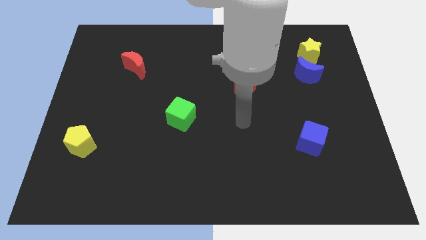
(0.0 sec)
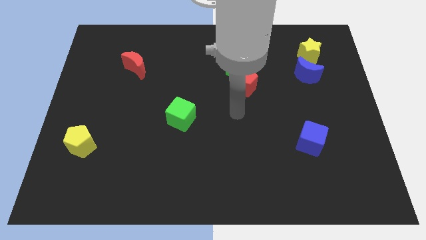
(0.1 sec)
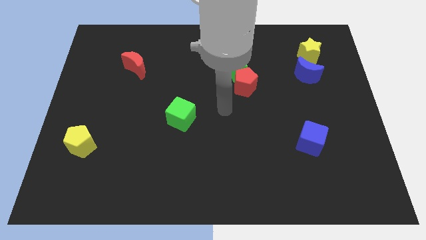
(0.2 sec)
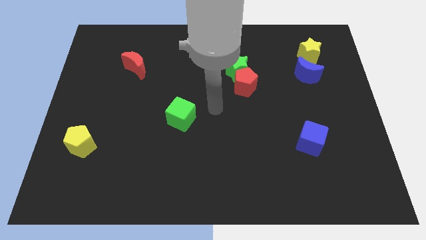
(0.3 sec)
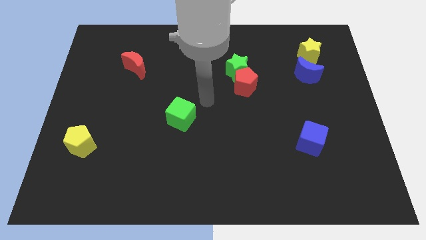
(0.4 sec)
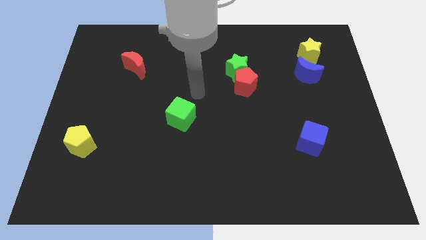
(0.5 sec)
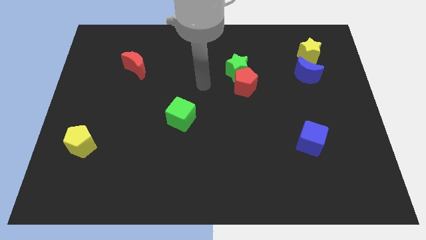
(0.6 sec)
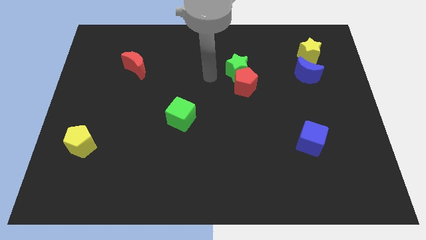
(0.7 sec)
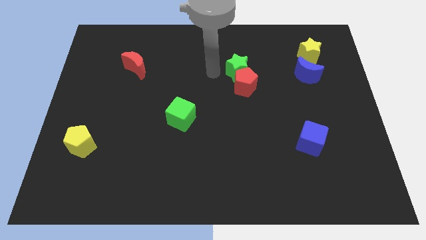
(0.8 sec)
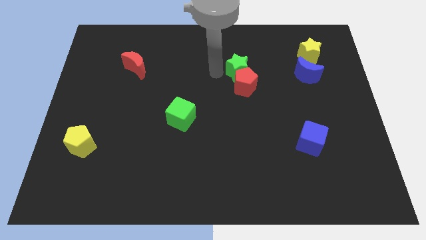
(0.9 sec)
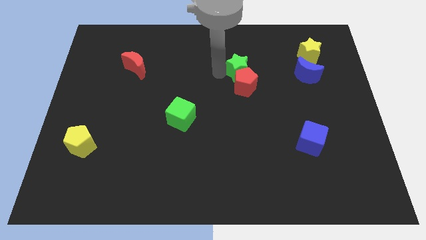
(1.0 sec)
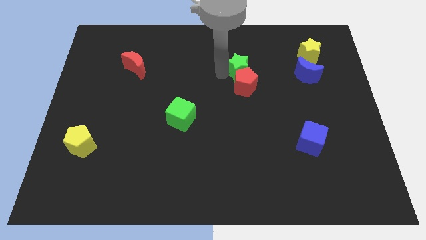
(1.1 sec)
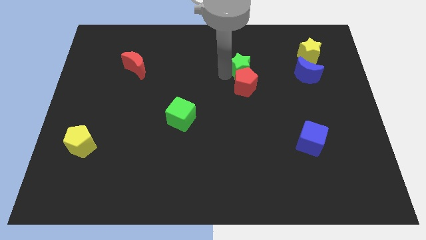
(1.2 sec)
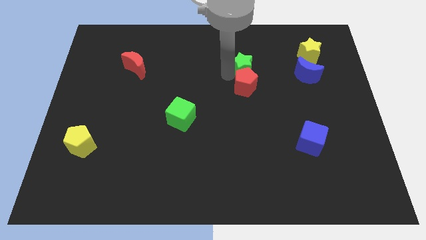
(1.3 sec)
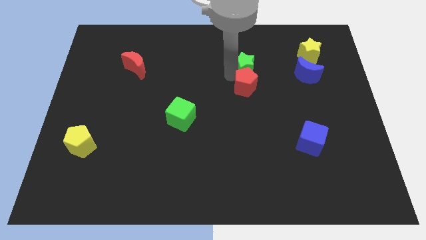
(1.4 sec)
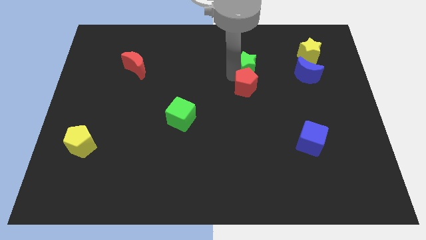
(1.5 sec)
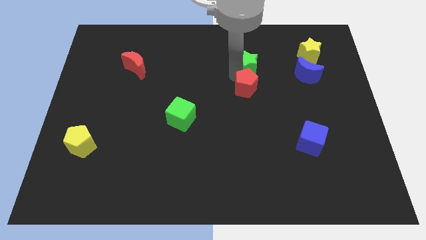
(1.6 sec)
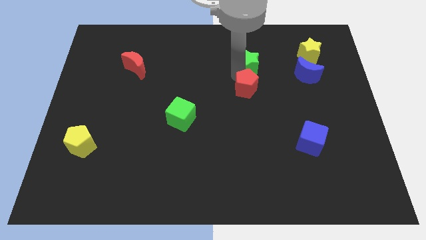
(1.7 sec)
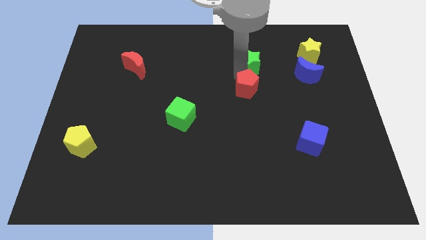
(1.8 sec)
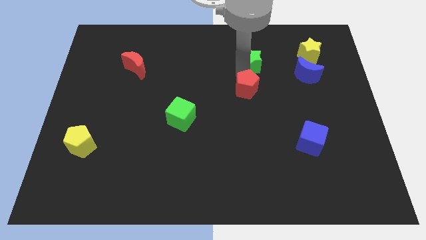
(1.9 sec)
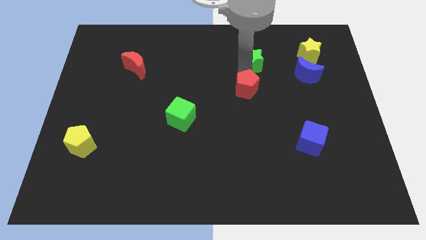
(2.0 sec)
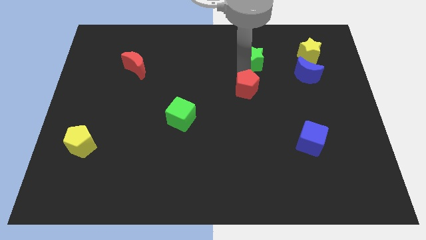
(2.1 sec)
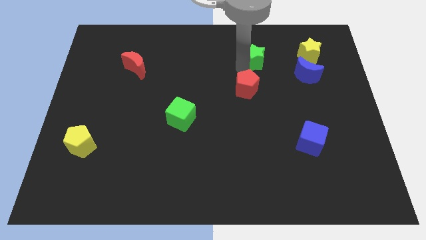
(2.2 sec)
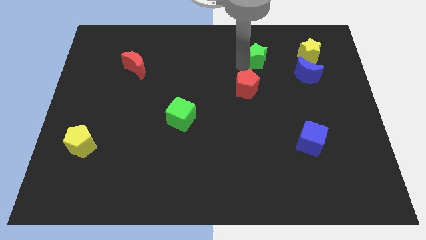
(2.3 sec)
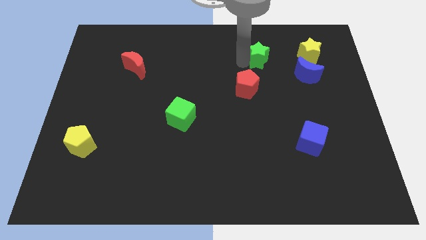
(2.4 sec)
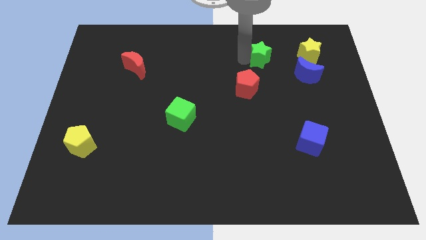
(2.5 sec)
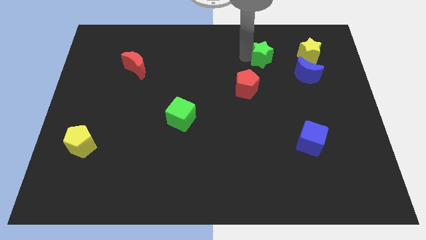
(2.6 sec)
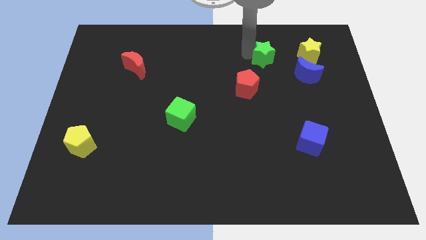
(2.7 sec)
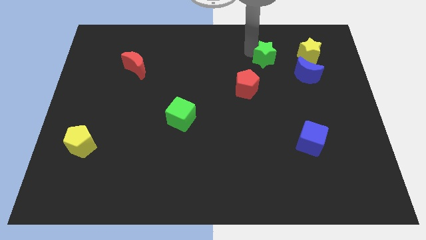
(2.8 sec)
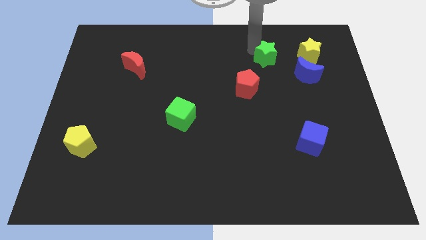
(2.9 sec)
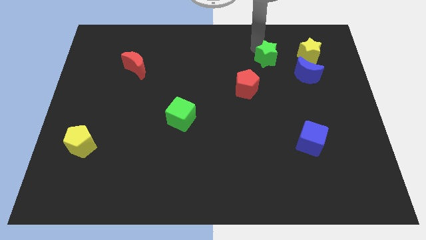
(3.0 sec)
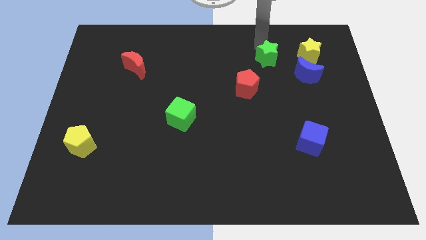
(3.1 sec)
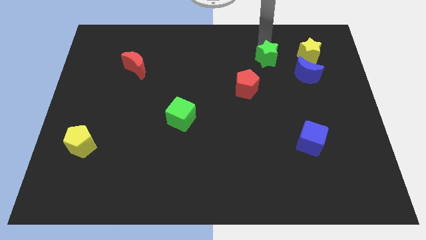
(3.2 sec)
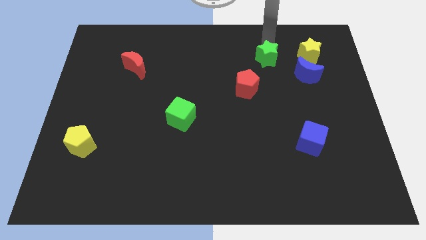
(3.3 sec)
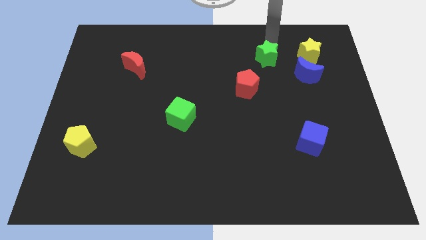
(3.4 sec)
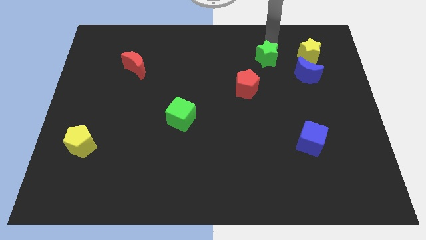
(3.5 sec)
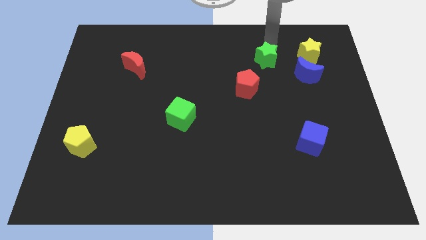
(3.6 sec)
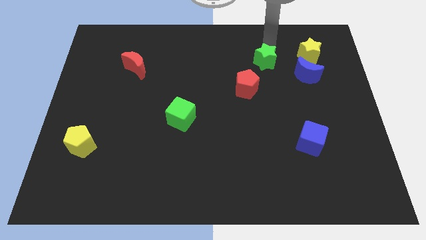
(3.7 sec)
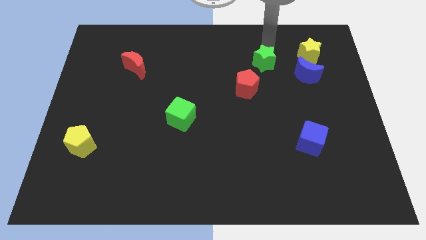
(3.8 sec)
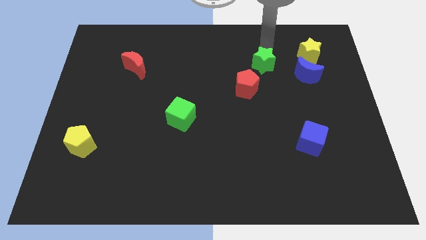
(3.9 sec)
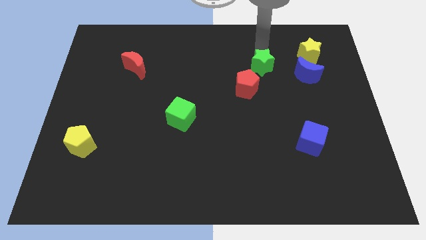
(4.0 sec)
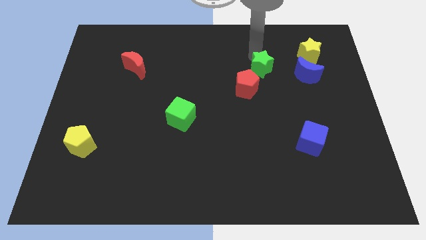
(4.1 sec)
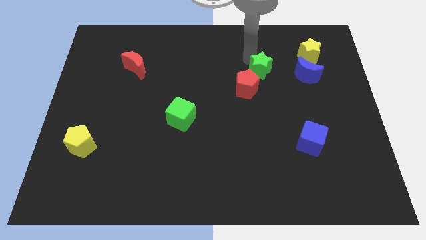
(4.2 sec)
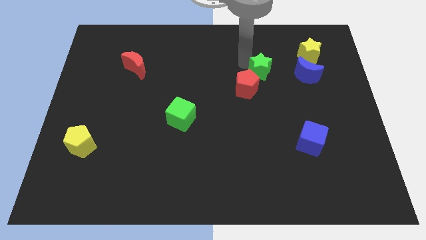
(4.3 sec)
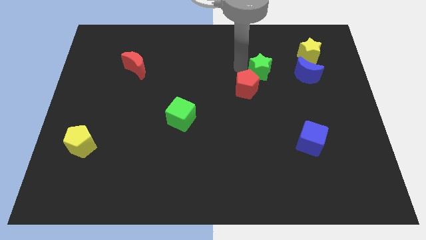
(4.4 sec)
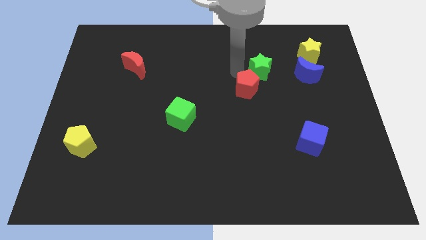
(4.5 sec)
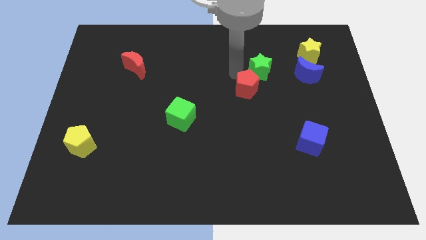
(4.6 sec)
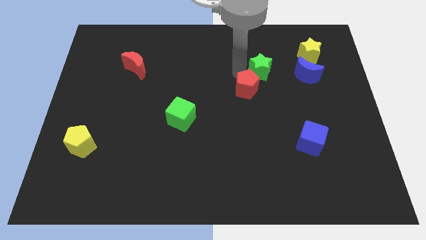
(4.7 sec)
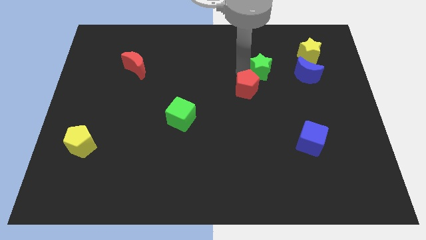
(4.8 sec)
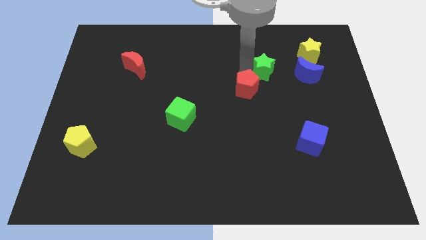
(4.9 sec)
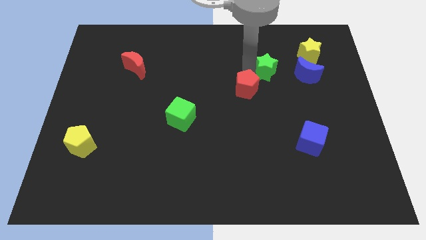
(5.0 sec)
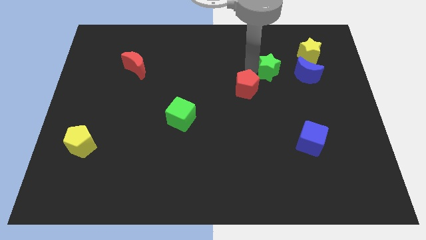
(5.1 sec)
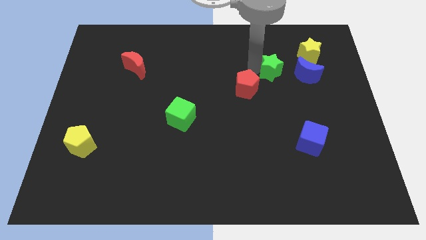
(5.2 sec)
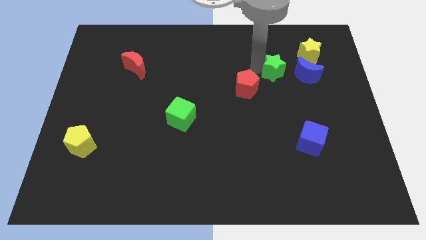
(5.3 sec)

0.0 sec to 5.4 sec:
push the green star to the bottom left of the yellow star

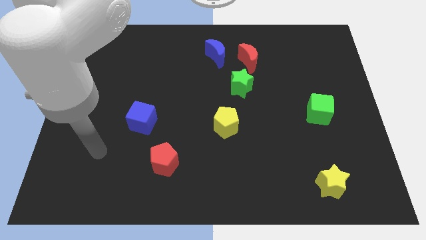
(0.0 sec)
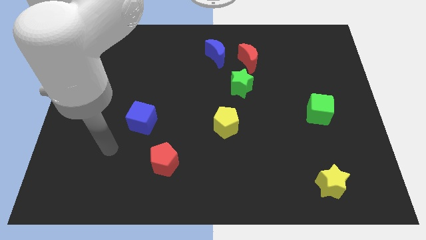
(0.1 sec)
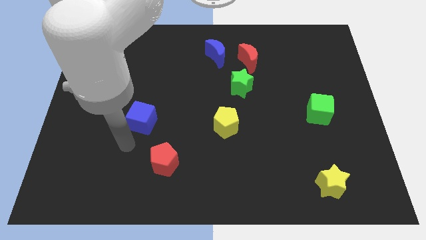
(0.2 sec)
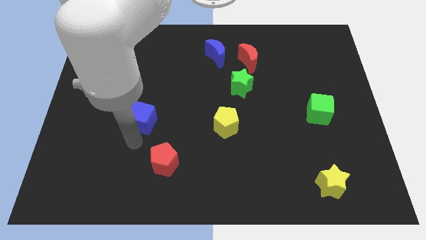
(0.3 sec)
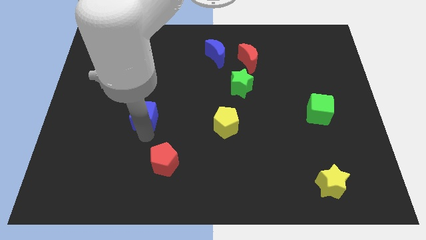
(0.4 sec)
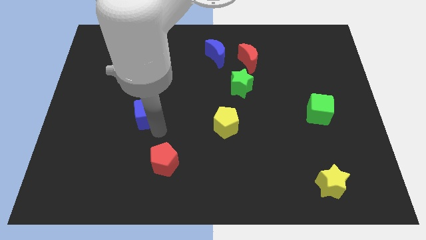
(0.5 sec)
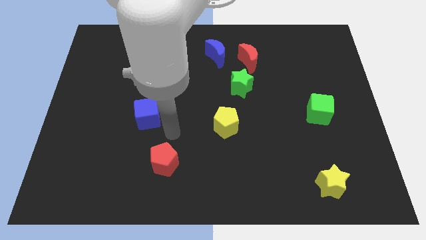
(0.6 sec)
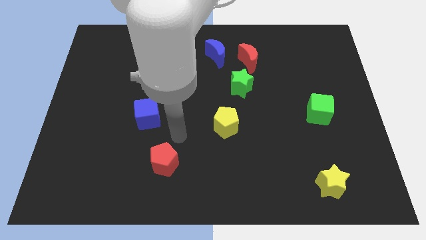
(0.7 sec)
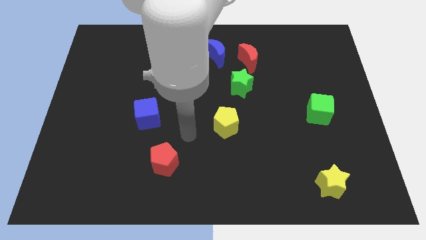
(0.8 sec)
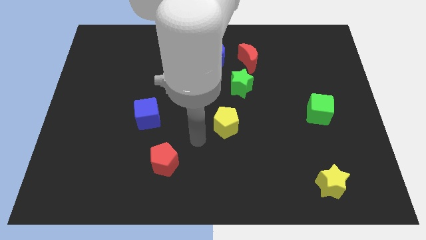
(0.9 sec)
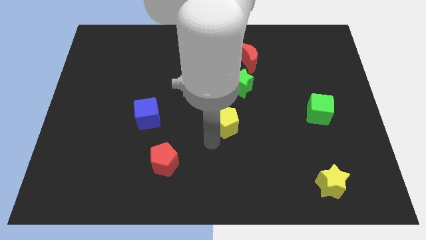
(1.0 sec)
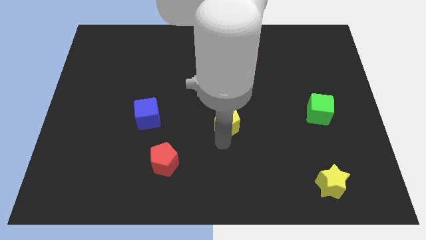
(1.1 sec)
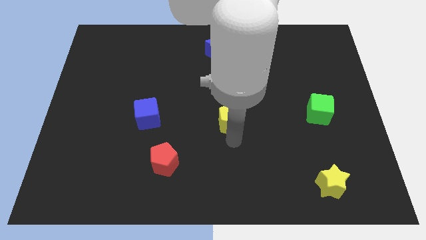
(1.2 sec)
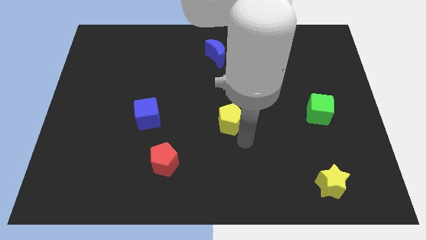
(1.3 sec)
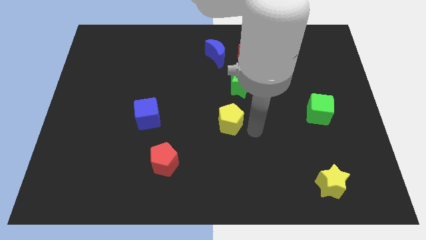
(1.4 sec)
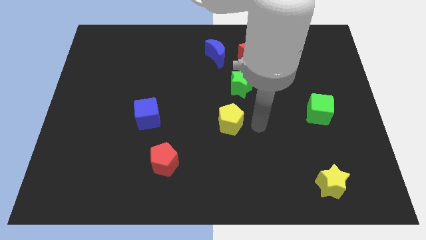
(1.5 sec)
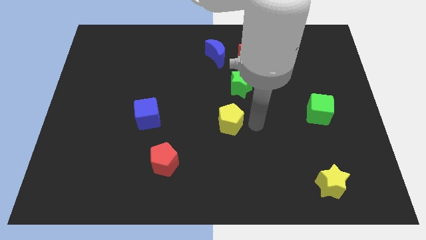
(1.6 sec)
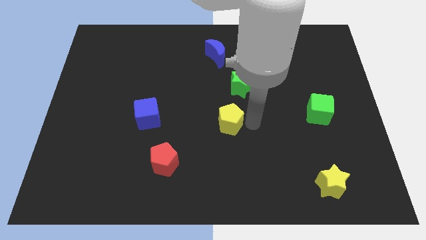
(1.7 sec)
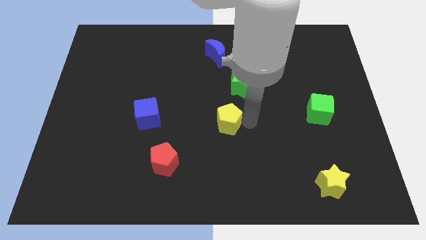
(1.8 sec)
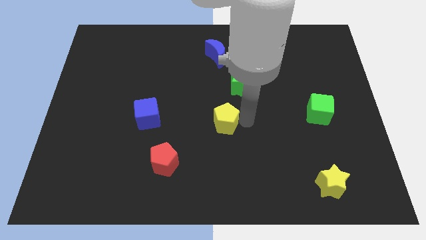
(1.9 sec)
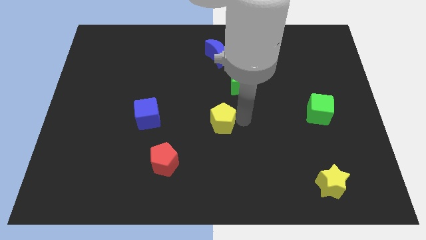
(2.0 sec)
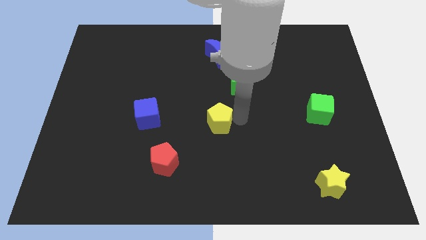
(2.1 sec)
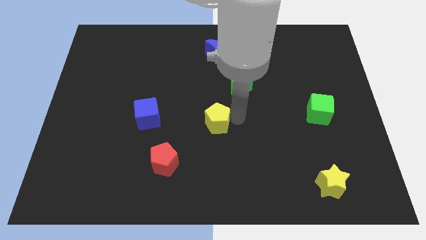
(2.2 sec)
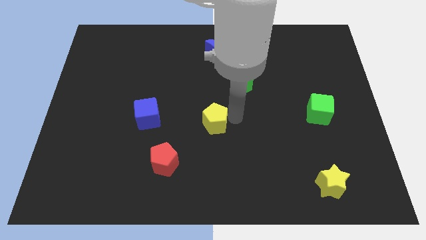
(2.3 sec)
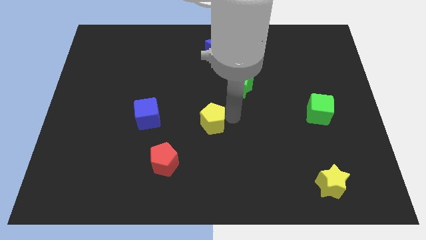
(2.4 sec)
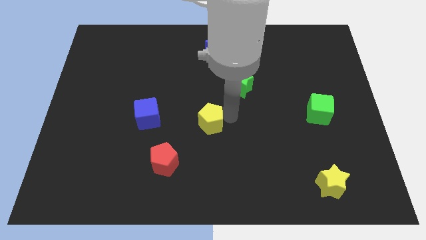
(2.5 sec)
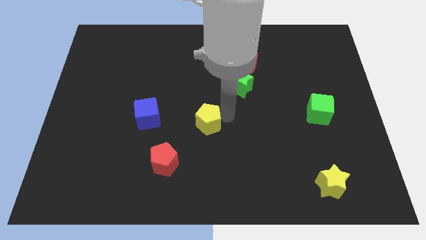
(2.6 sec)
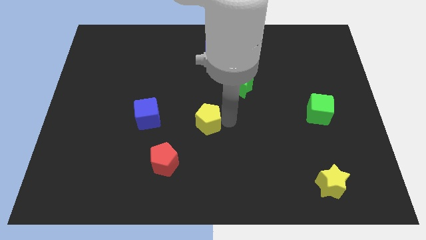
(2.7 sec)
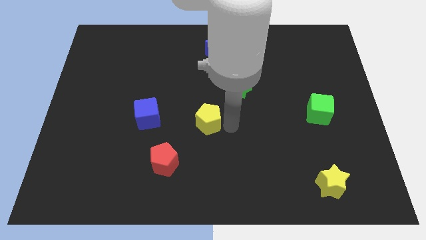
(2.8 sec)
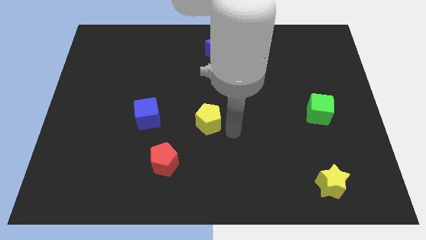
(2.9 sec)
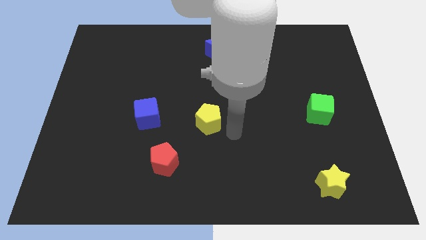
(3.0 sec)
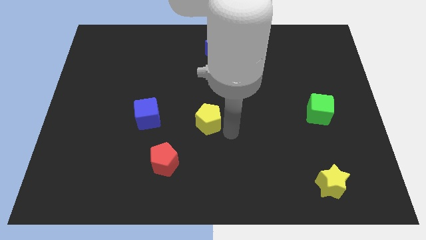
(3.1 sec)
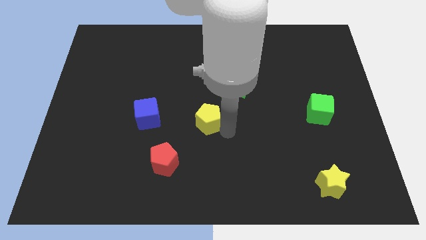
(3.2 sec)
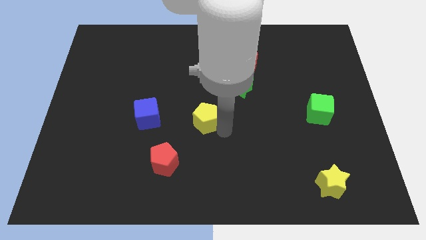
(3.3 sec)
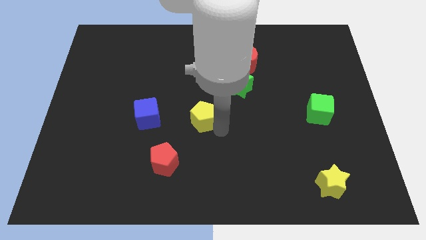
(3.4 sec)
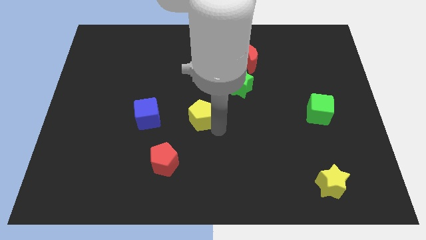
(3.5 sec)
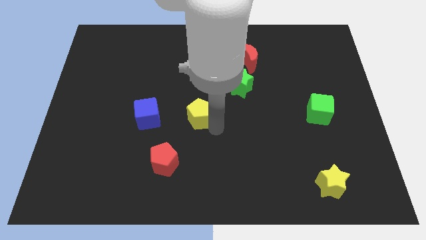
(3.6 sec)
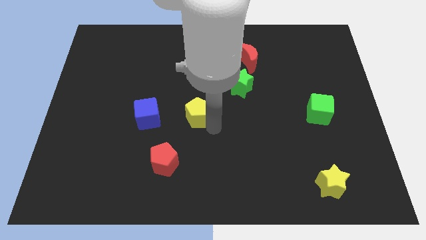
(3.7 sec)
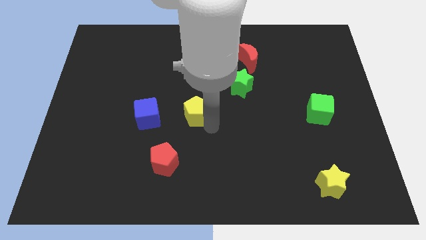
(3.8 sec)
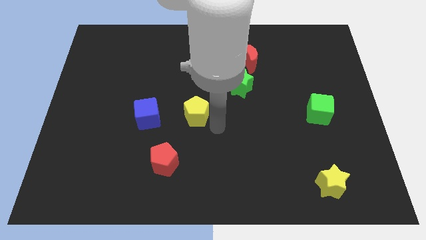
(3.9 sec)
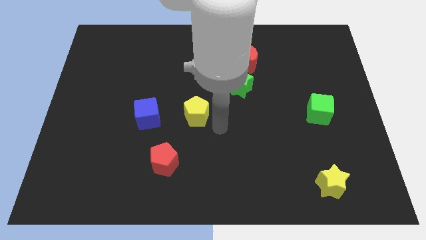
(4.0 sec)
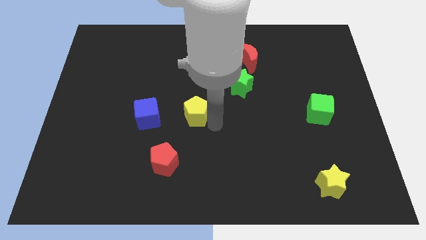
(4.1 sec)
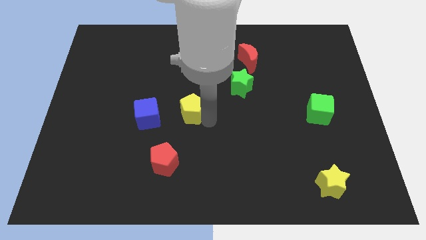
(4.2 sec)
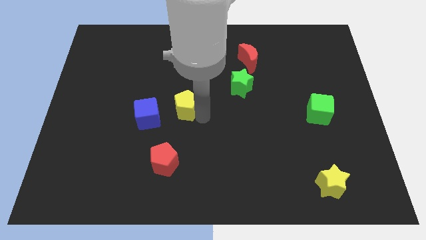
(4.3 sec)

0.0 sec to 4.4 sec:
slide the yellow pentagon to the top right of the blue cube
